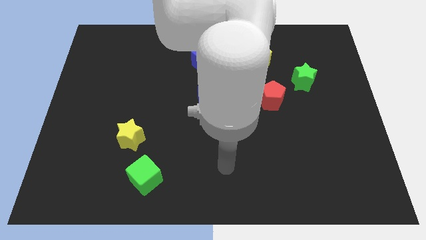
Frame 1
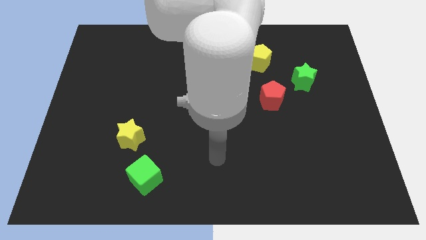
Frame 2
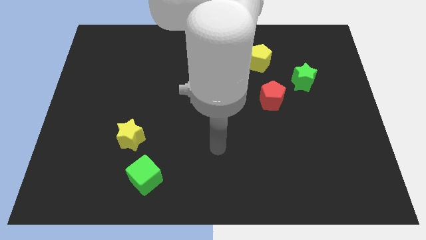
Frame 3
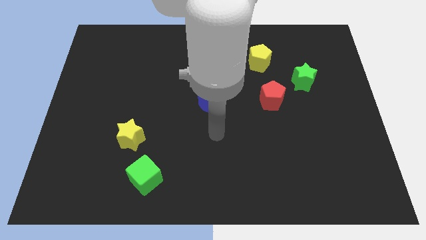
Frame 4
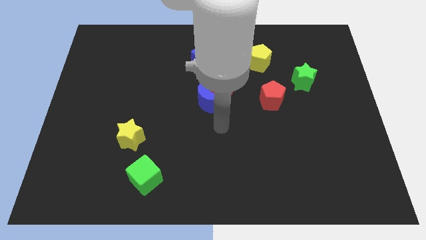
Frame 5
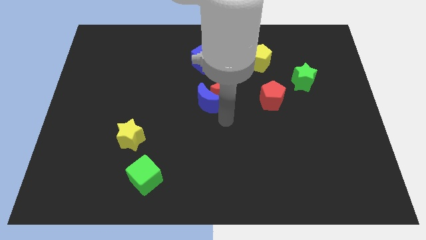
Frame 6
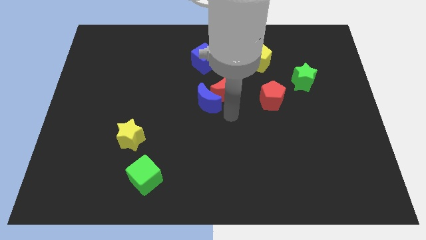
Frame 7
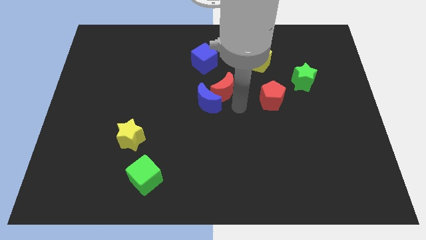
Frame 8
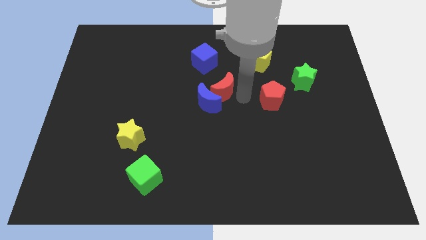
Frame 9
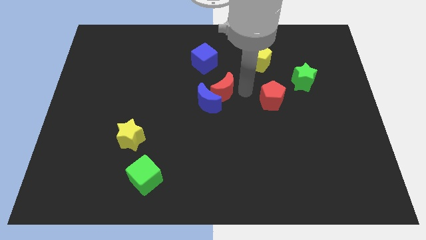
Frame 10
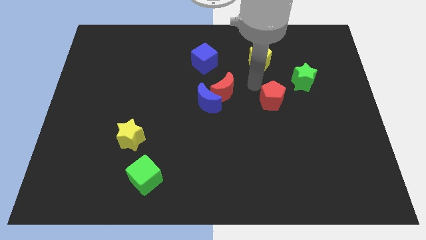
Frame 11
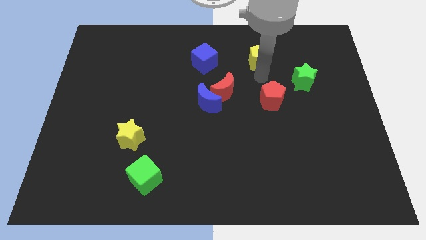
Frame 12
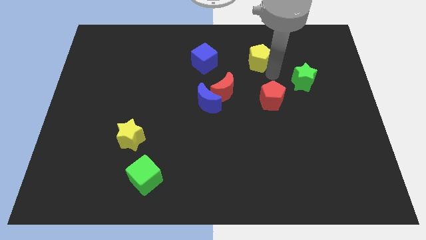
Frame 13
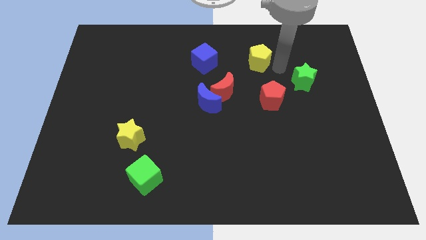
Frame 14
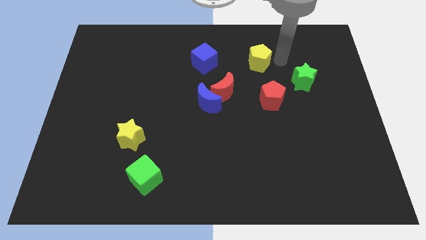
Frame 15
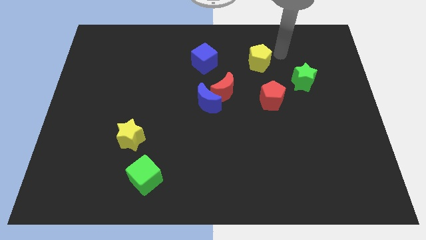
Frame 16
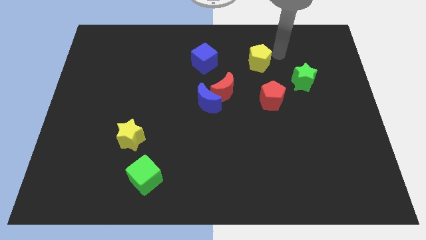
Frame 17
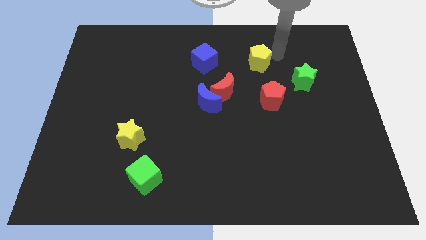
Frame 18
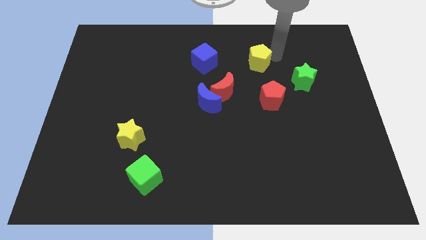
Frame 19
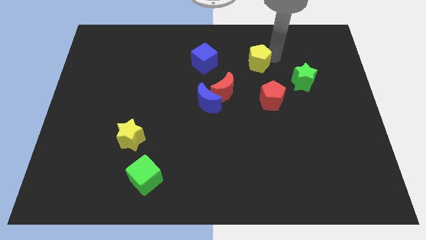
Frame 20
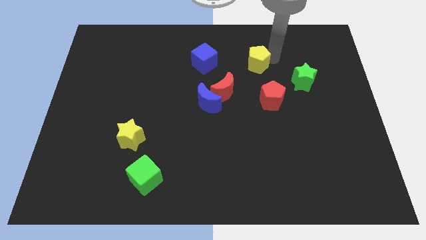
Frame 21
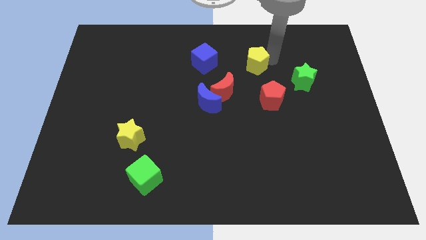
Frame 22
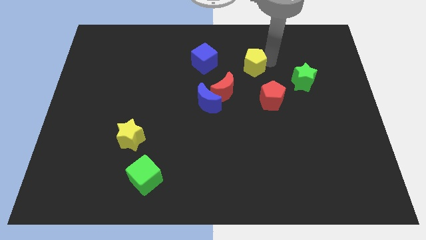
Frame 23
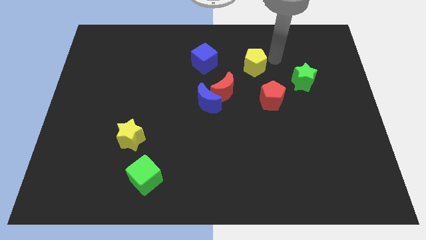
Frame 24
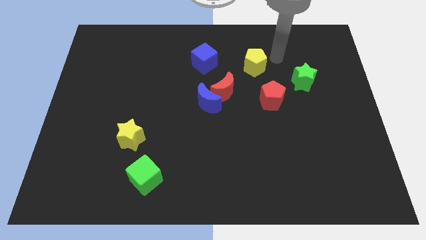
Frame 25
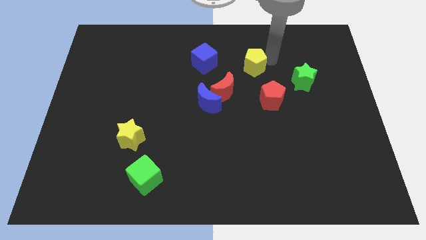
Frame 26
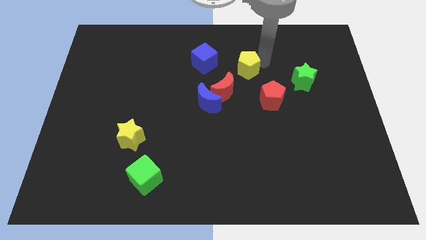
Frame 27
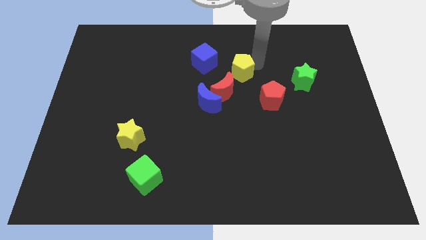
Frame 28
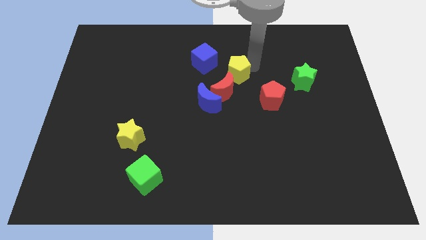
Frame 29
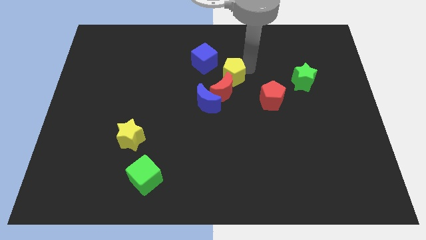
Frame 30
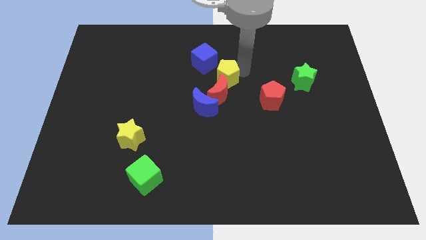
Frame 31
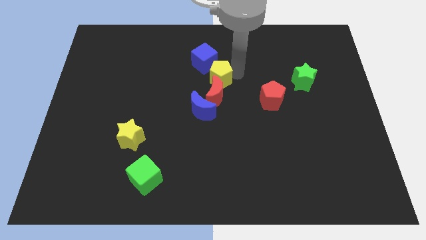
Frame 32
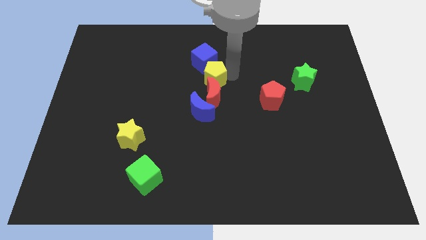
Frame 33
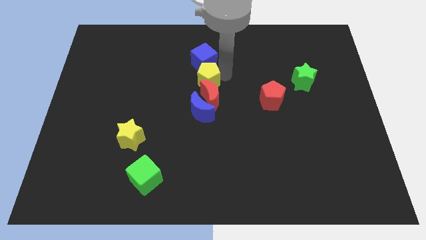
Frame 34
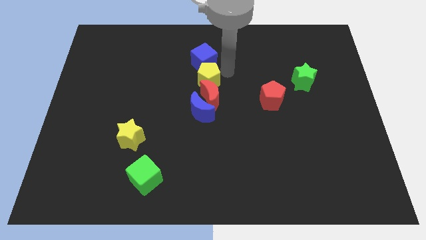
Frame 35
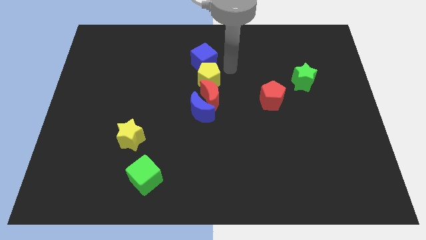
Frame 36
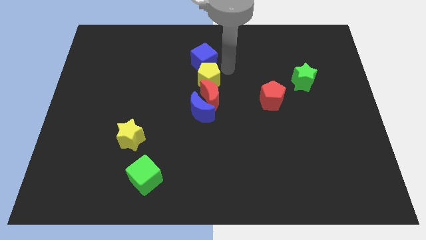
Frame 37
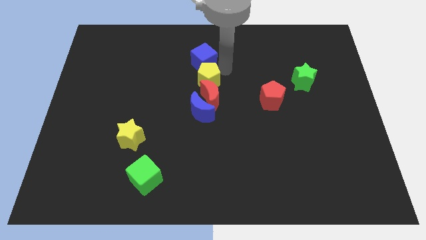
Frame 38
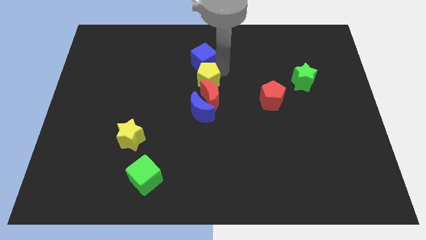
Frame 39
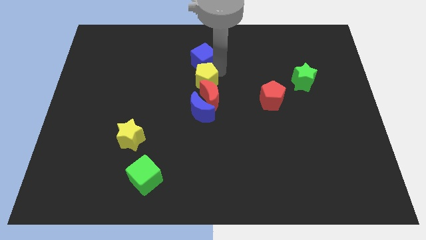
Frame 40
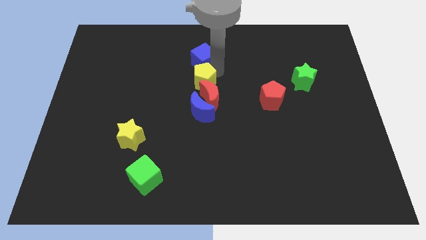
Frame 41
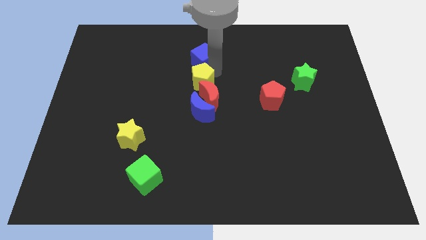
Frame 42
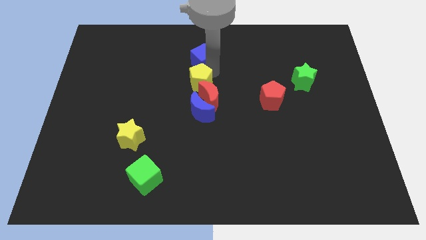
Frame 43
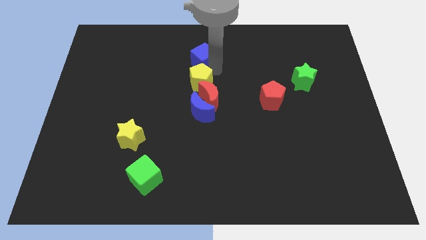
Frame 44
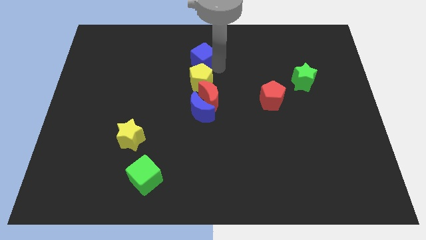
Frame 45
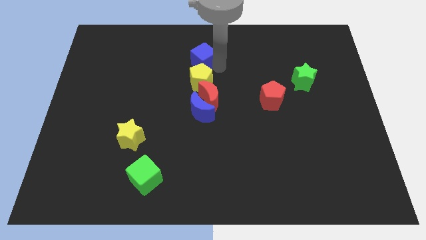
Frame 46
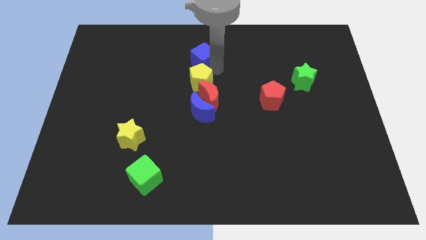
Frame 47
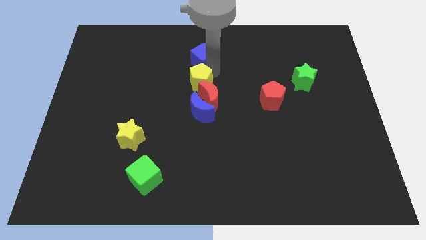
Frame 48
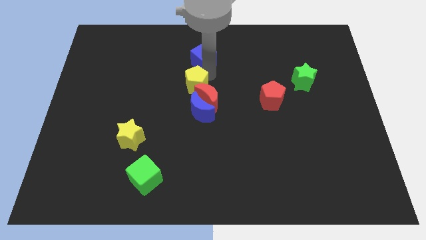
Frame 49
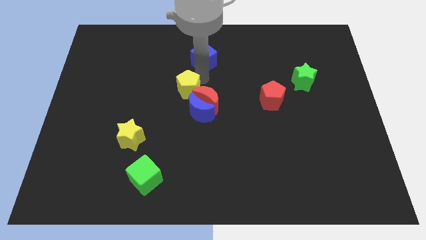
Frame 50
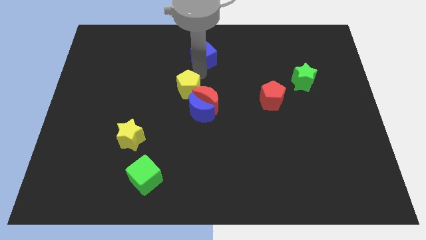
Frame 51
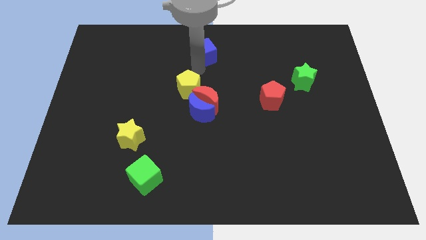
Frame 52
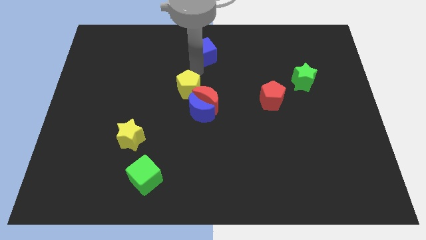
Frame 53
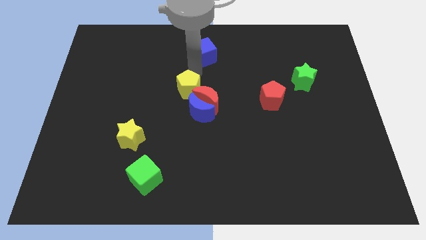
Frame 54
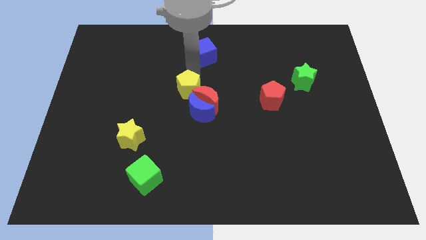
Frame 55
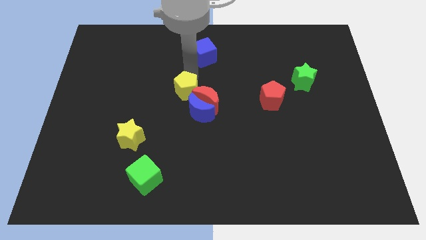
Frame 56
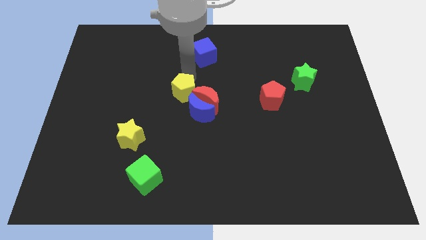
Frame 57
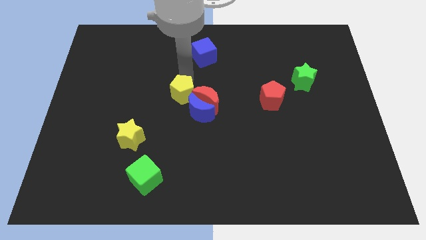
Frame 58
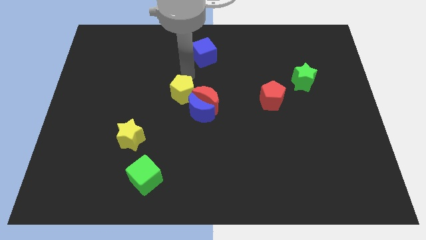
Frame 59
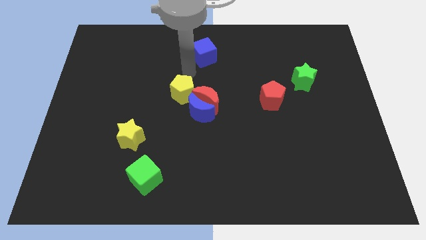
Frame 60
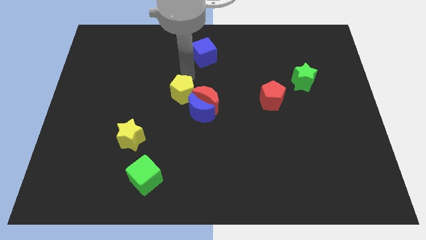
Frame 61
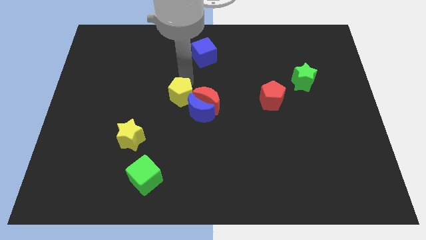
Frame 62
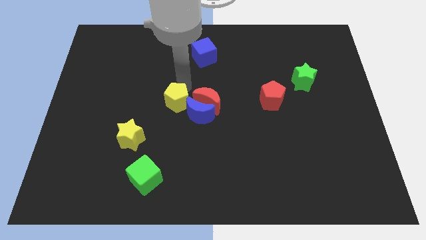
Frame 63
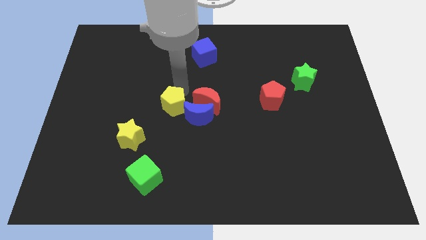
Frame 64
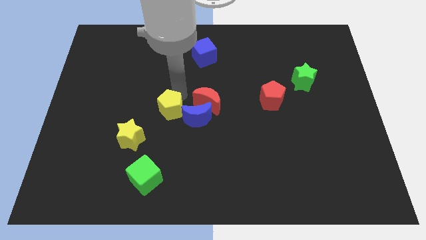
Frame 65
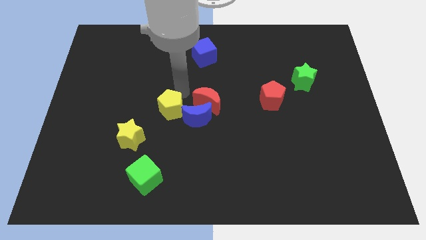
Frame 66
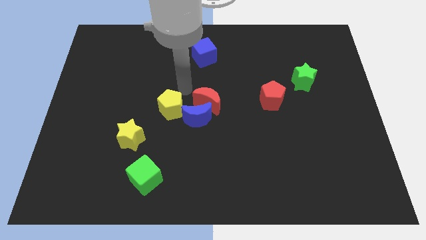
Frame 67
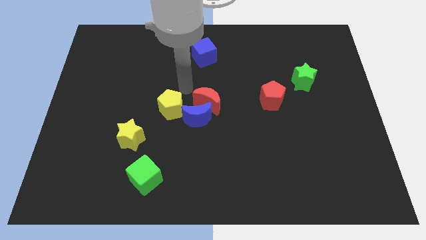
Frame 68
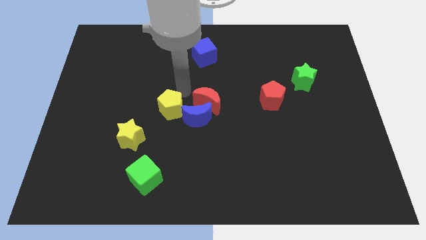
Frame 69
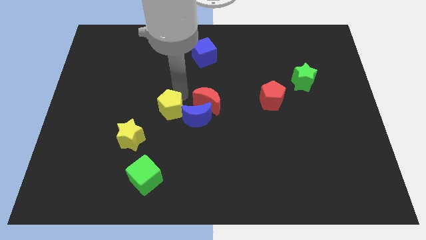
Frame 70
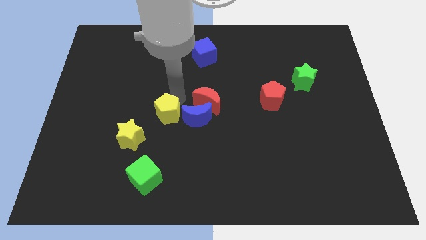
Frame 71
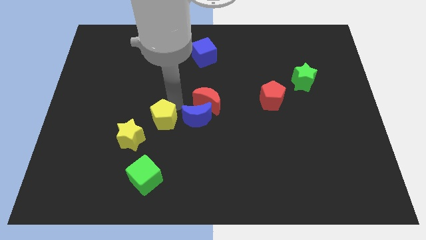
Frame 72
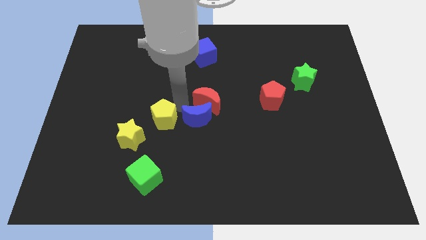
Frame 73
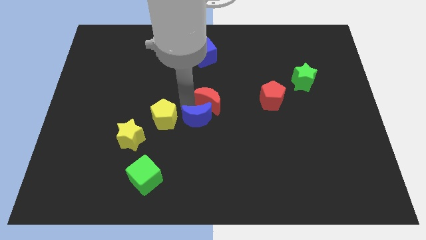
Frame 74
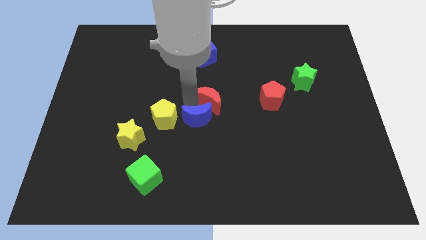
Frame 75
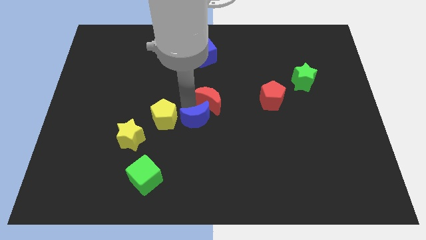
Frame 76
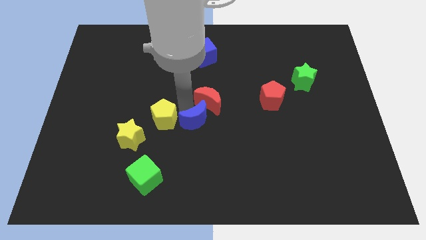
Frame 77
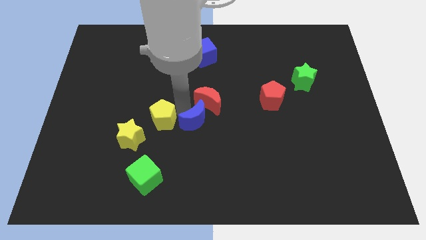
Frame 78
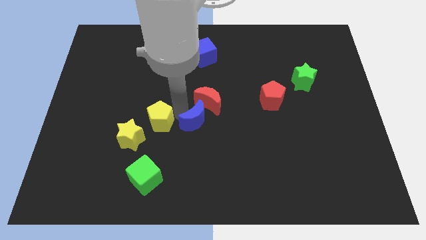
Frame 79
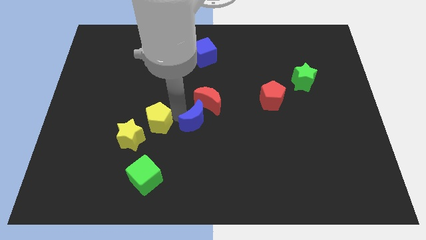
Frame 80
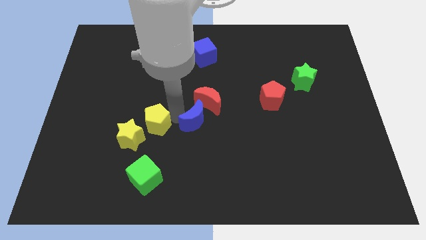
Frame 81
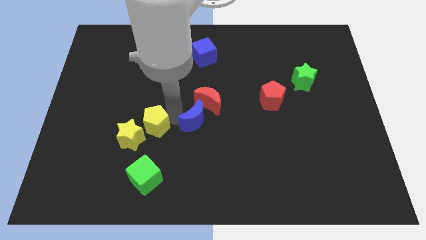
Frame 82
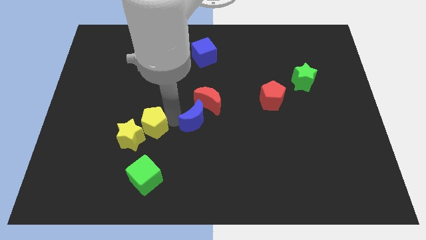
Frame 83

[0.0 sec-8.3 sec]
slide the yellow pentagon towards the yellow star
